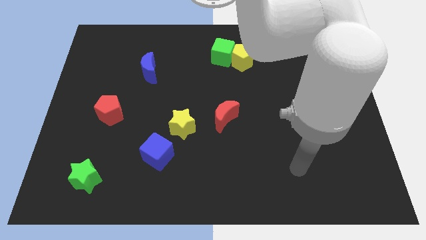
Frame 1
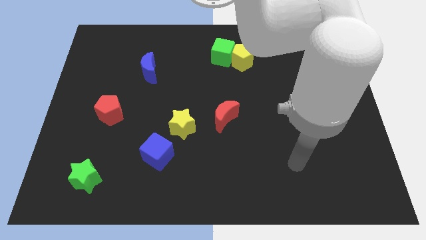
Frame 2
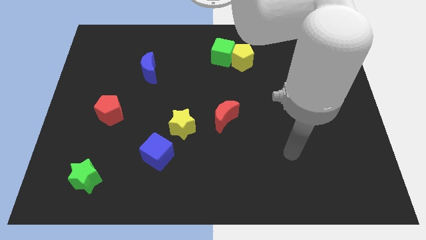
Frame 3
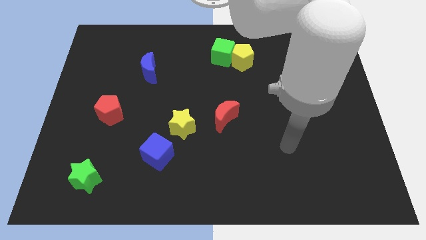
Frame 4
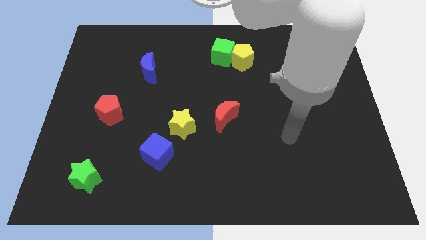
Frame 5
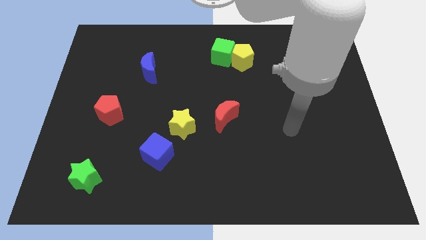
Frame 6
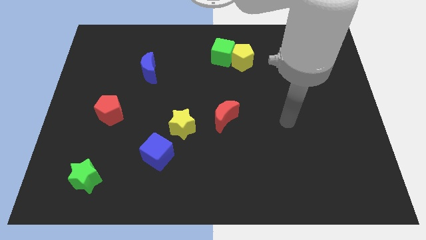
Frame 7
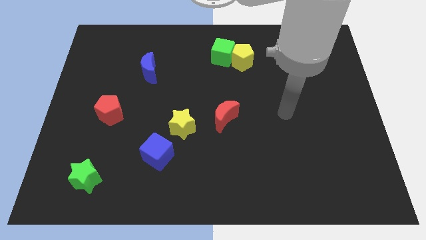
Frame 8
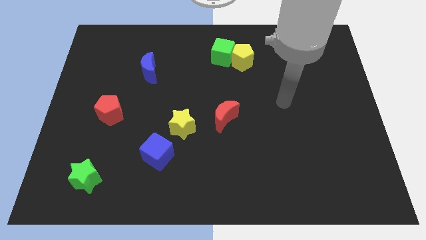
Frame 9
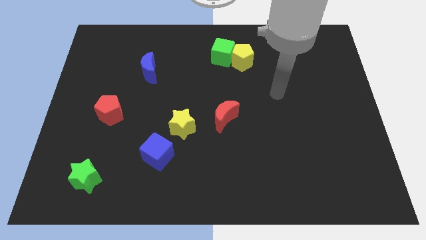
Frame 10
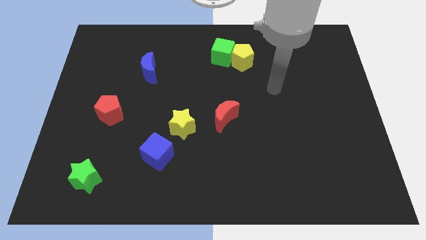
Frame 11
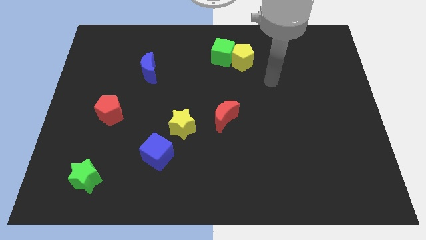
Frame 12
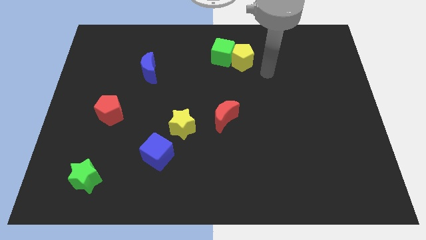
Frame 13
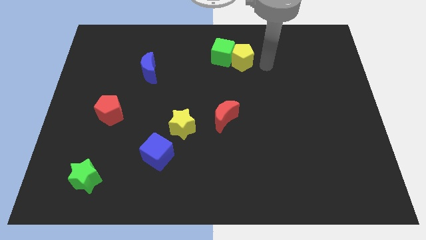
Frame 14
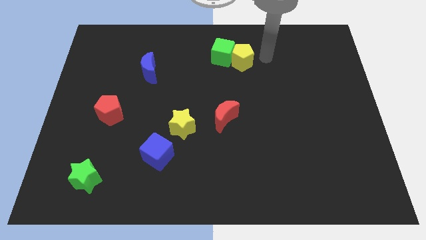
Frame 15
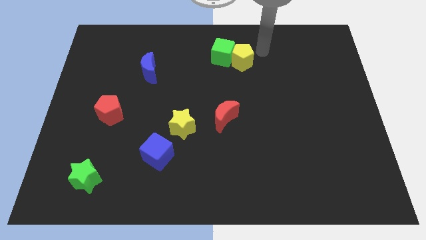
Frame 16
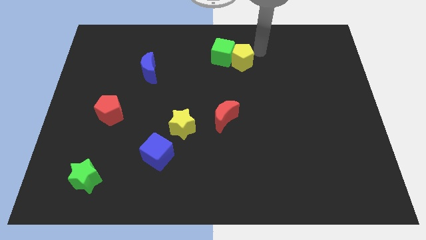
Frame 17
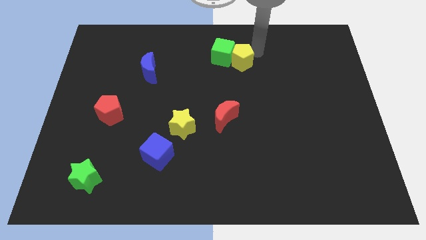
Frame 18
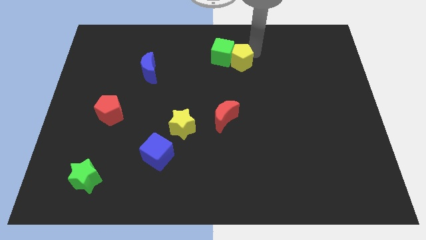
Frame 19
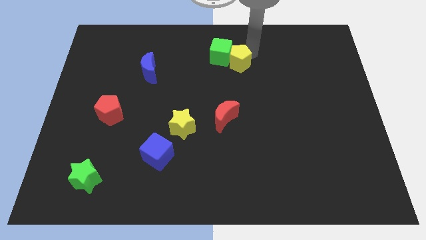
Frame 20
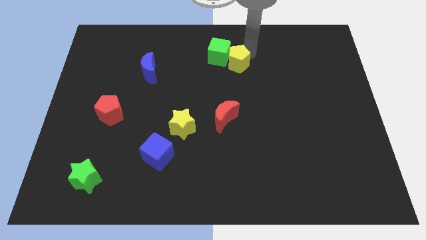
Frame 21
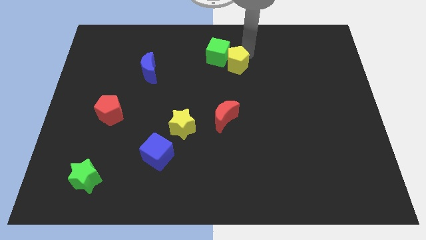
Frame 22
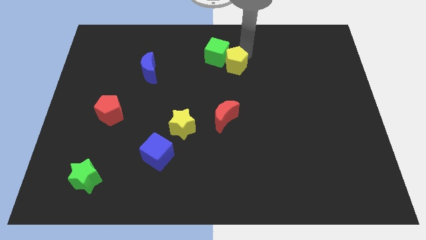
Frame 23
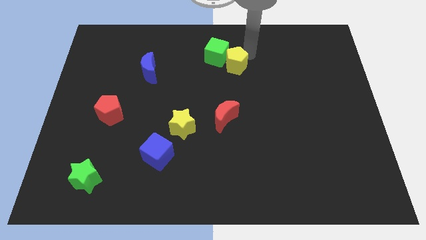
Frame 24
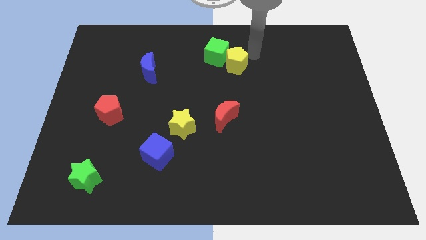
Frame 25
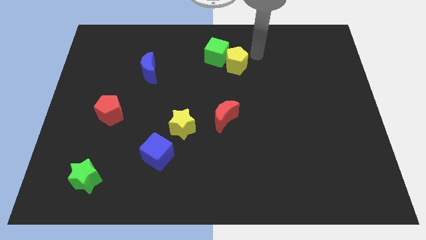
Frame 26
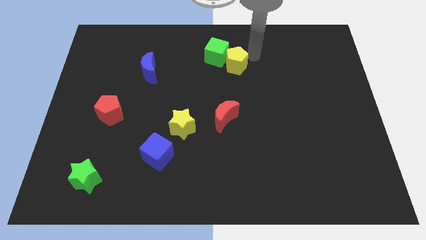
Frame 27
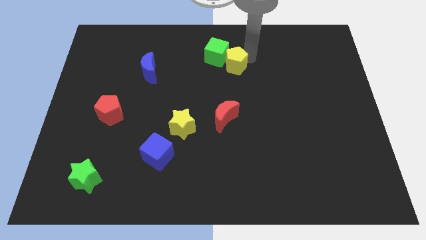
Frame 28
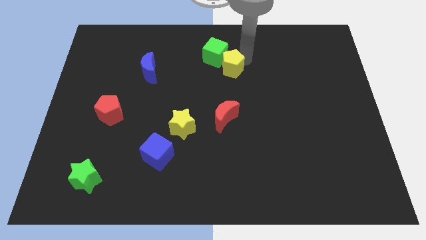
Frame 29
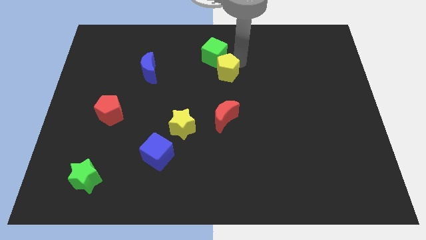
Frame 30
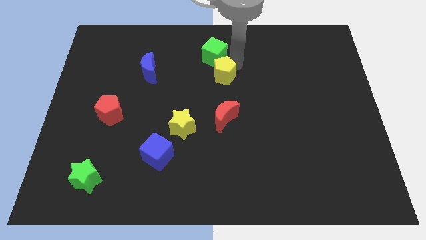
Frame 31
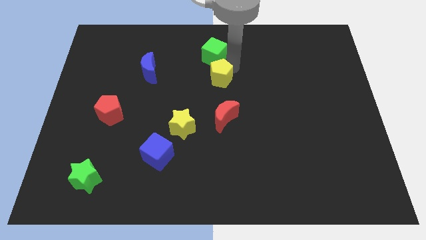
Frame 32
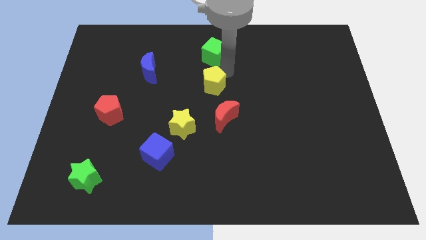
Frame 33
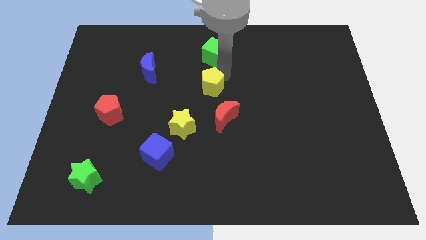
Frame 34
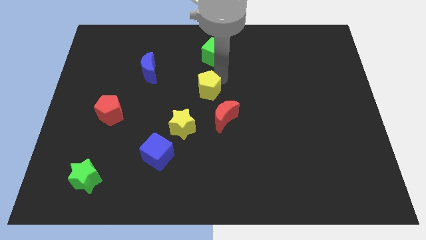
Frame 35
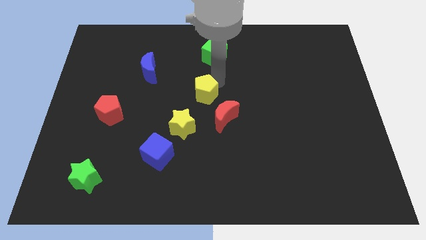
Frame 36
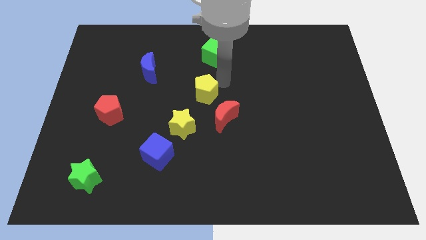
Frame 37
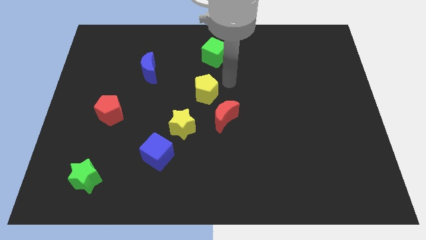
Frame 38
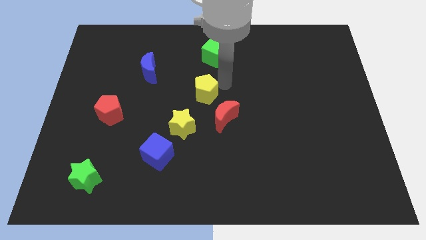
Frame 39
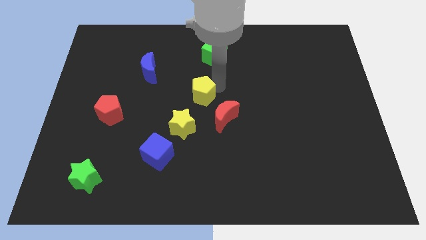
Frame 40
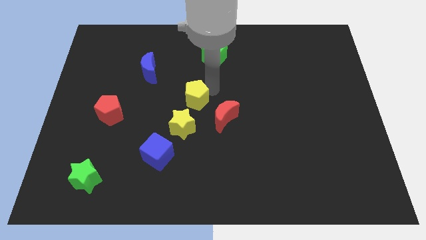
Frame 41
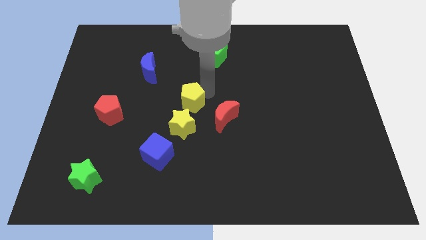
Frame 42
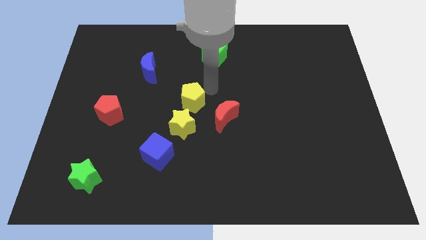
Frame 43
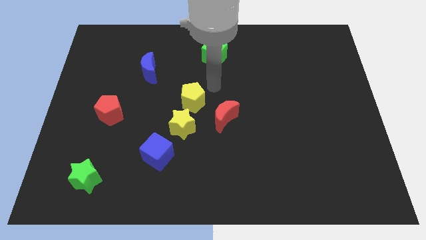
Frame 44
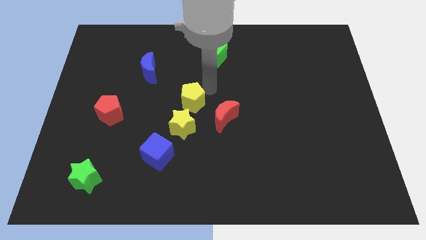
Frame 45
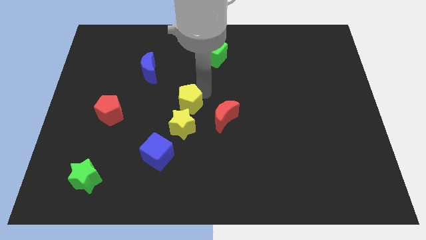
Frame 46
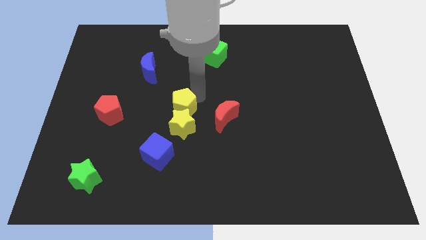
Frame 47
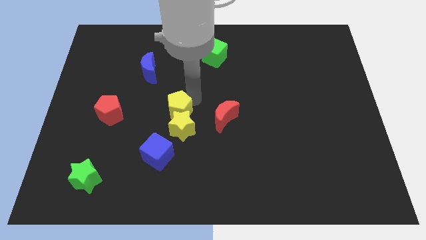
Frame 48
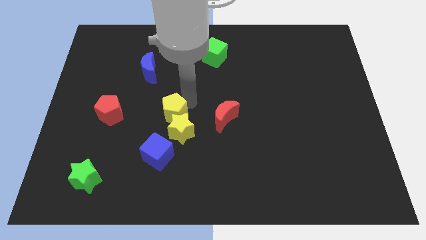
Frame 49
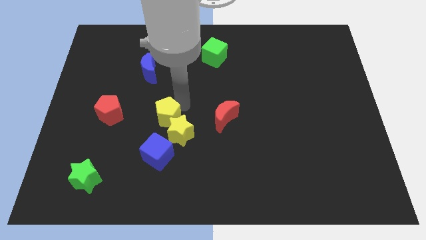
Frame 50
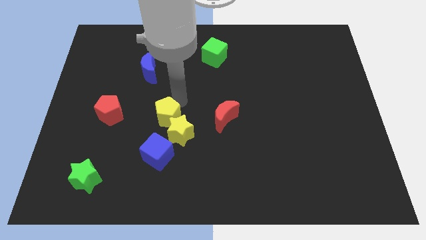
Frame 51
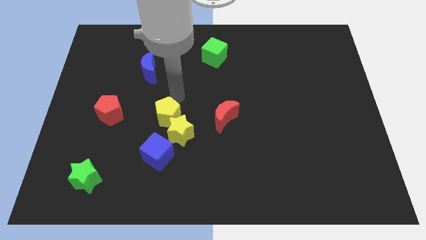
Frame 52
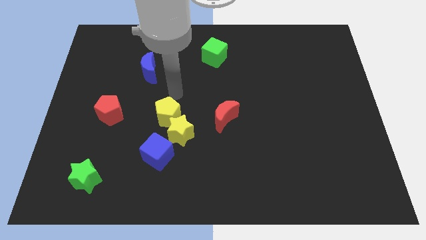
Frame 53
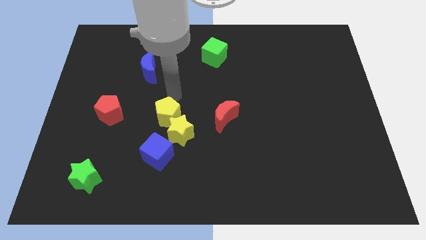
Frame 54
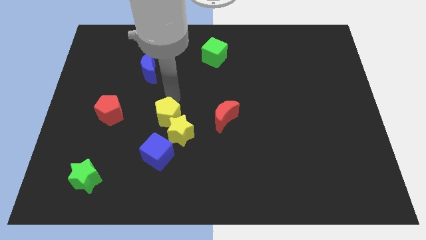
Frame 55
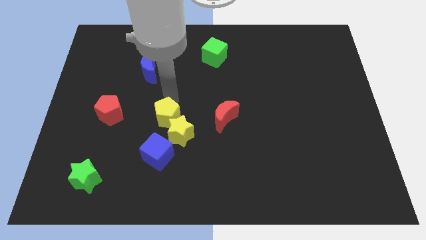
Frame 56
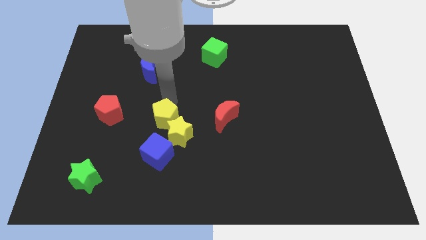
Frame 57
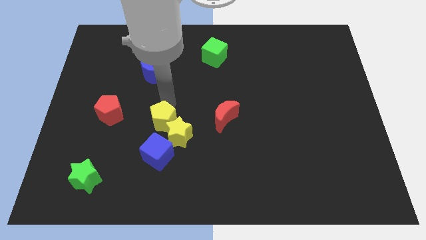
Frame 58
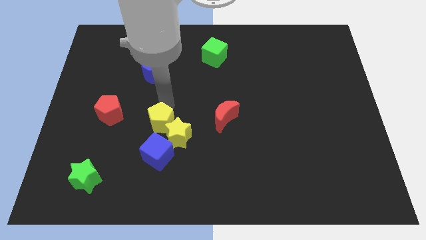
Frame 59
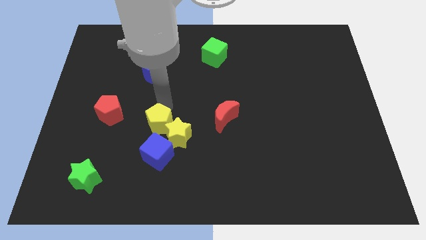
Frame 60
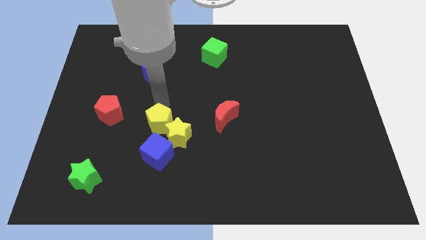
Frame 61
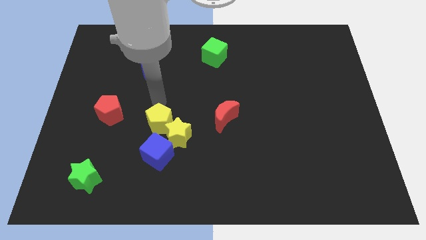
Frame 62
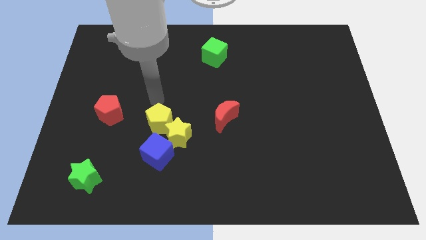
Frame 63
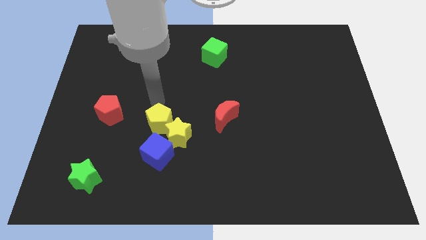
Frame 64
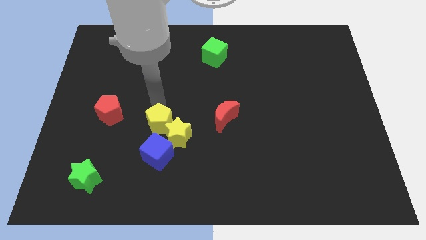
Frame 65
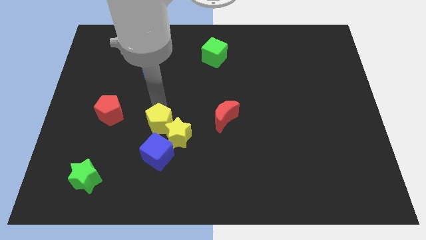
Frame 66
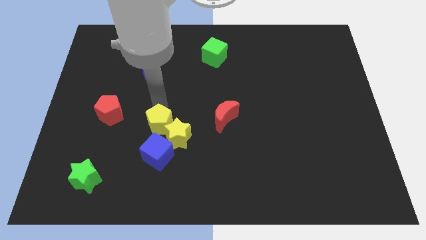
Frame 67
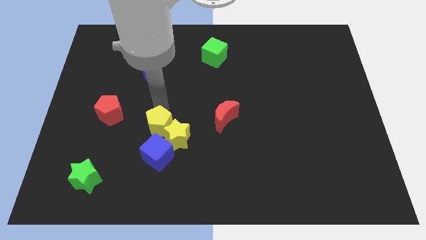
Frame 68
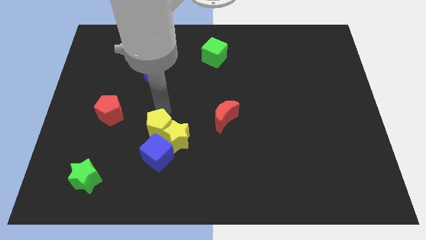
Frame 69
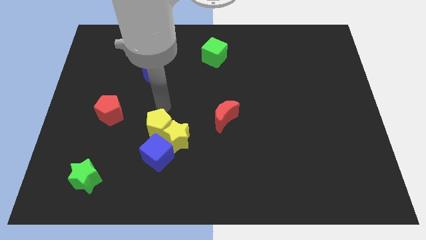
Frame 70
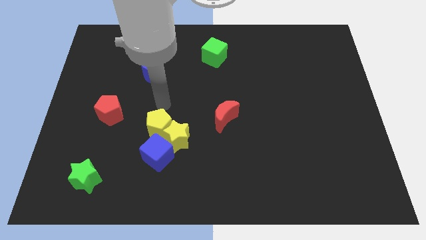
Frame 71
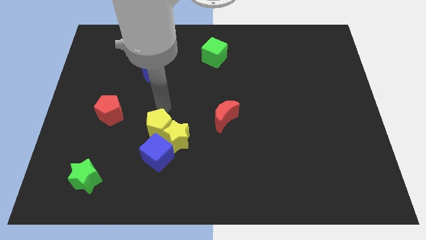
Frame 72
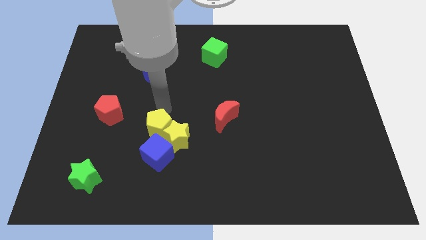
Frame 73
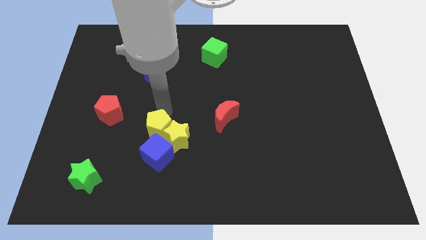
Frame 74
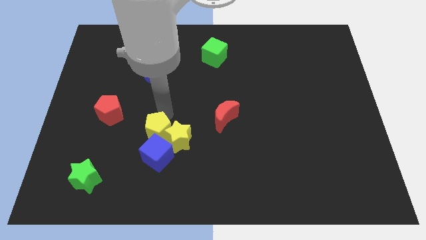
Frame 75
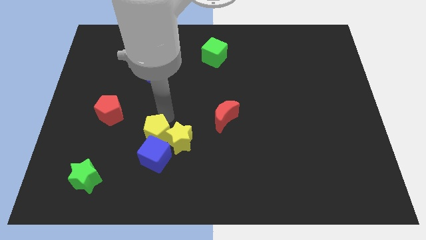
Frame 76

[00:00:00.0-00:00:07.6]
slide the yellow pentagon close to the blue cube
